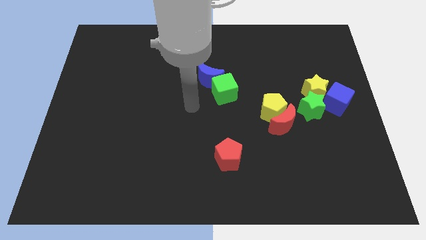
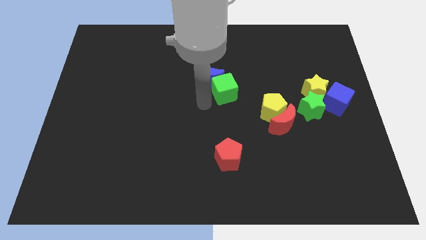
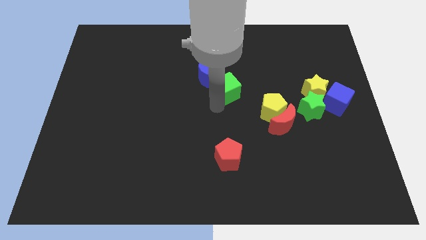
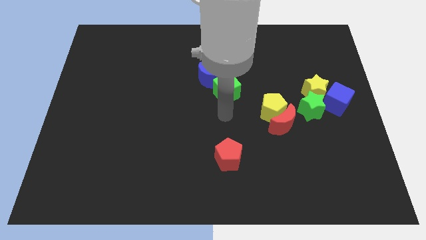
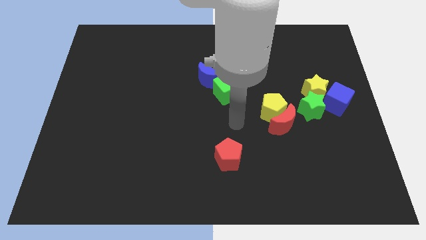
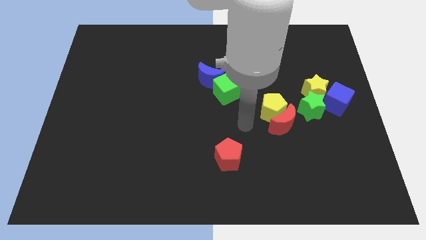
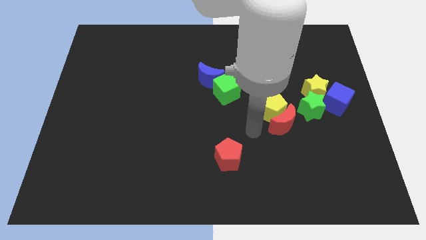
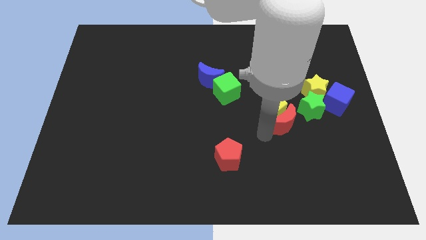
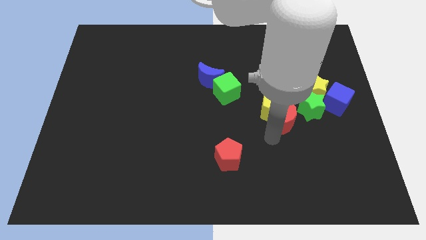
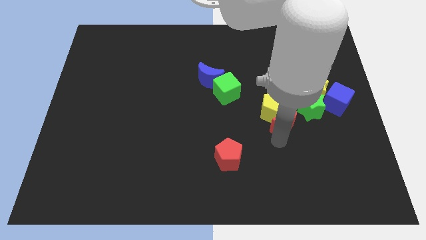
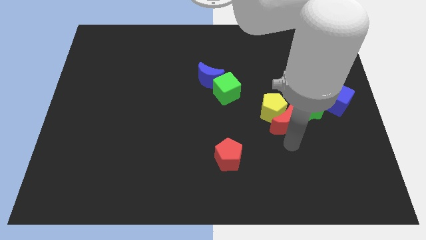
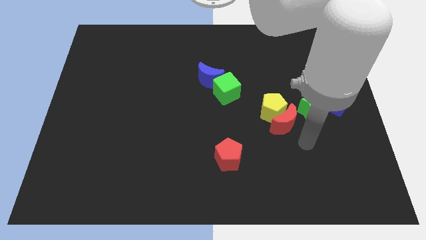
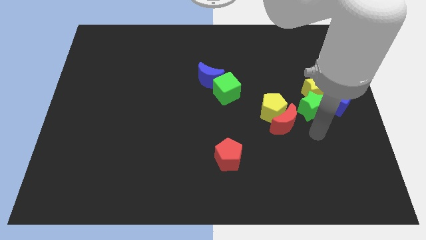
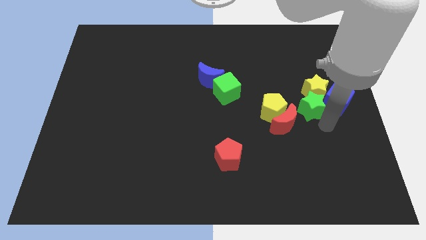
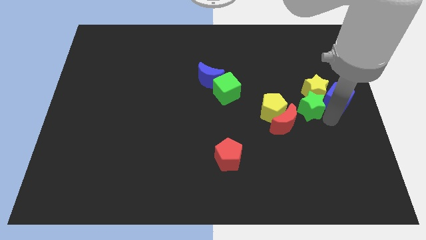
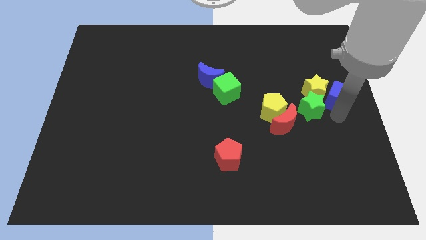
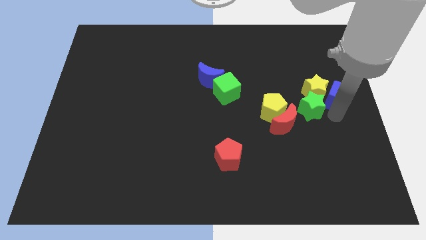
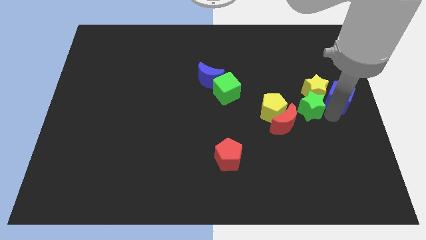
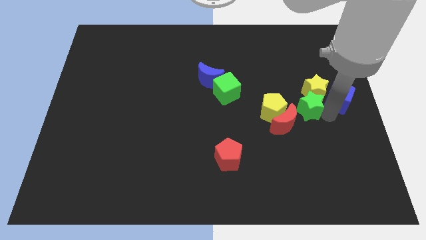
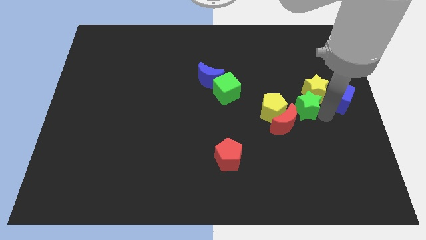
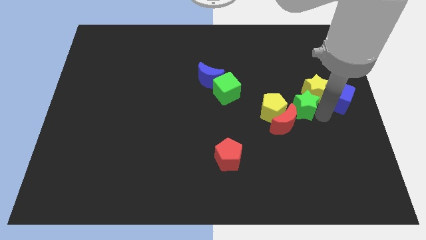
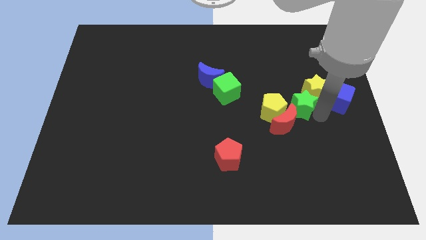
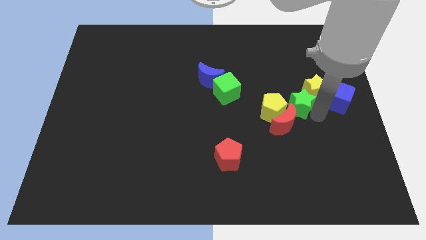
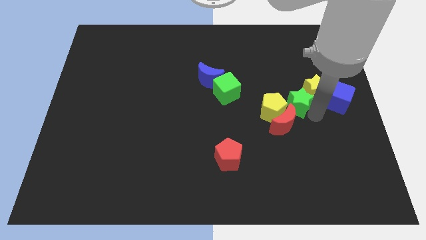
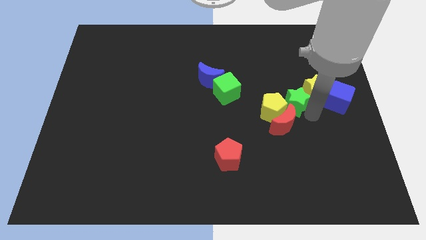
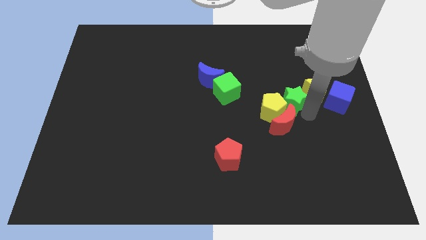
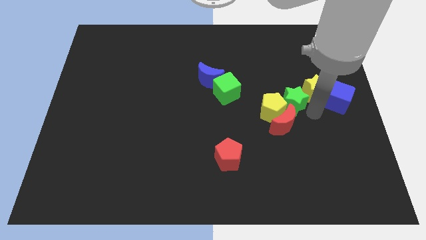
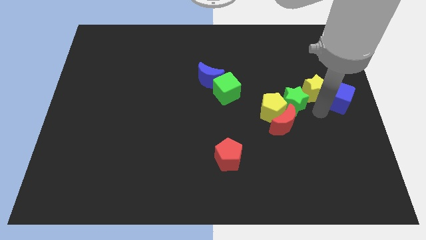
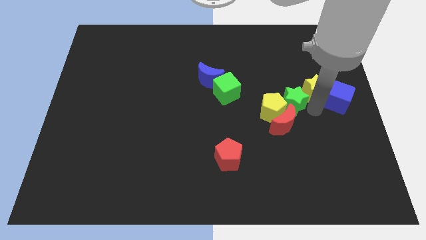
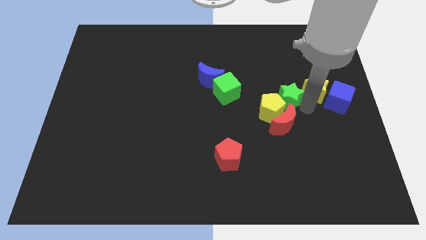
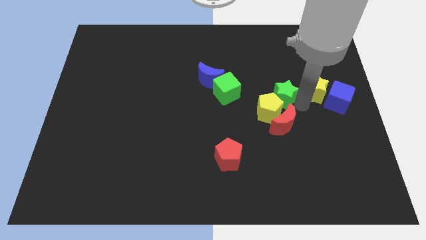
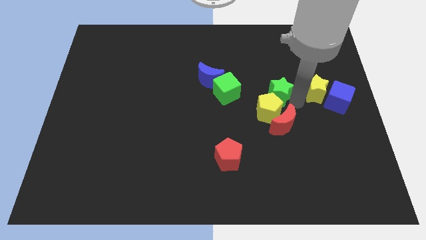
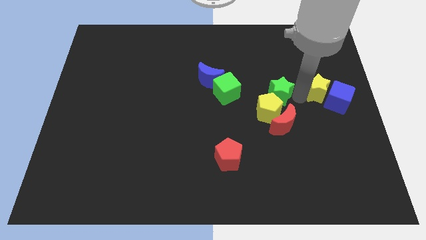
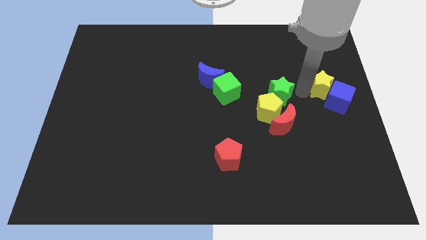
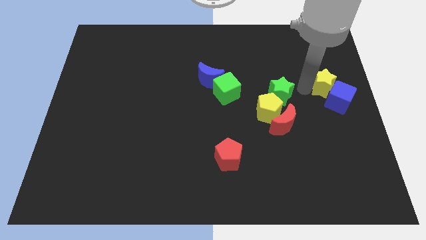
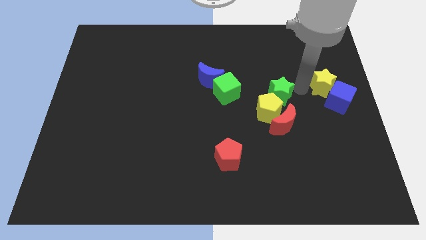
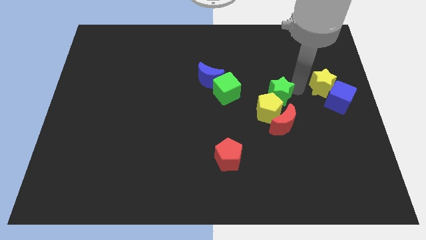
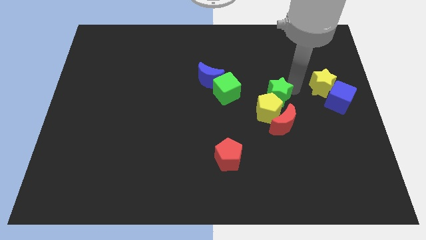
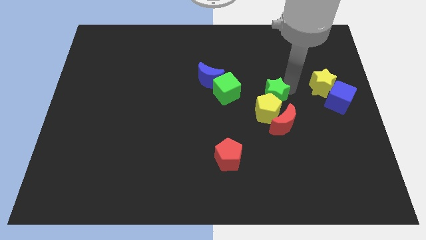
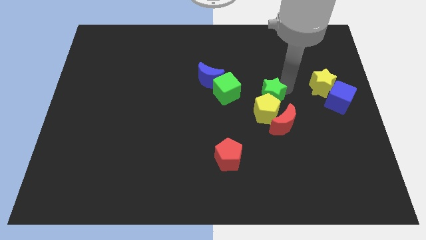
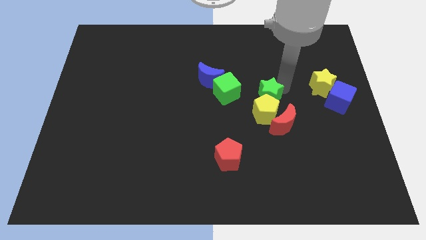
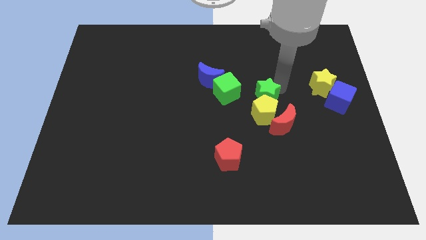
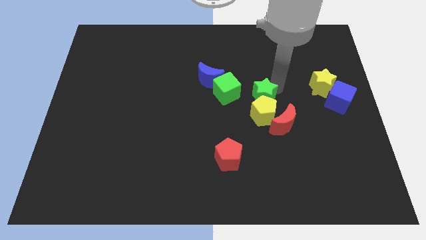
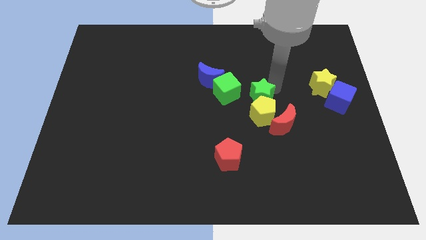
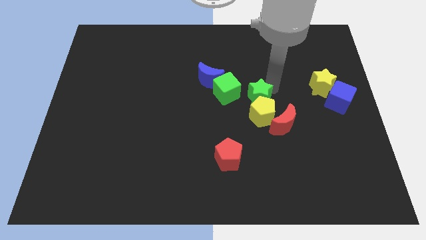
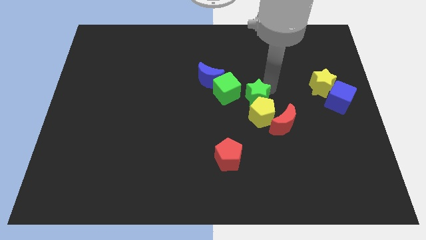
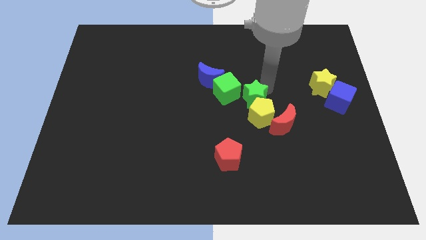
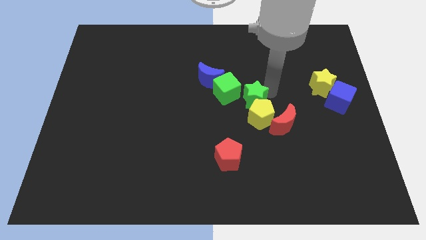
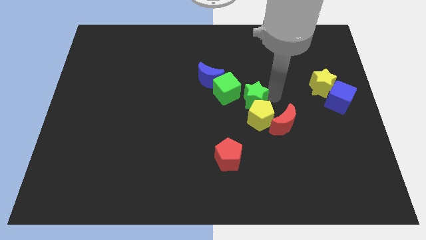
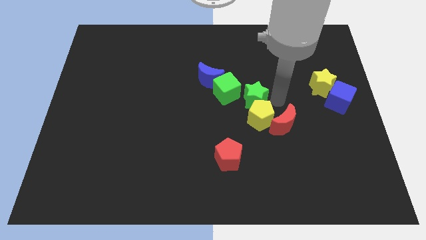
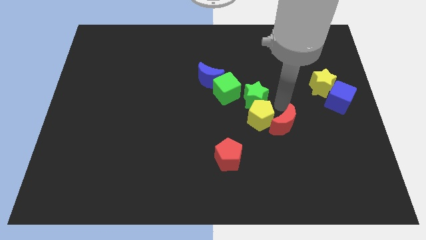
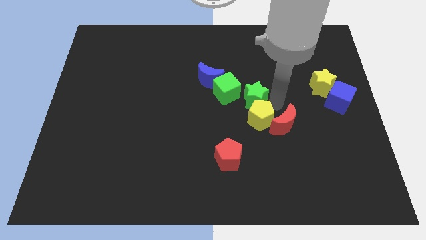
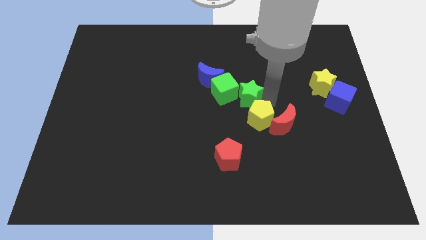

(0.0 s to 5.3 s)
put the green star next to the green cube

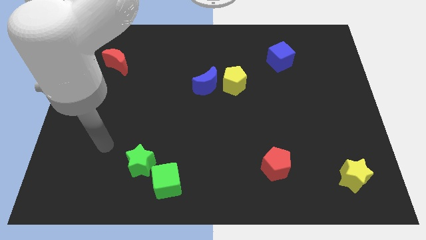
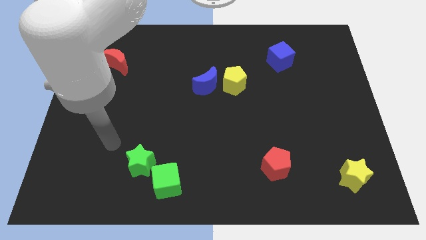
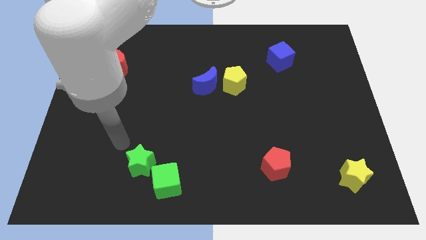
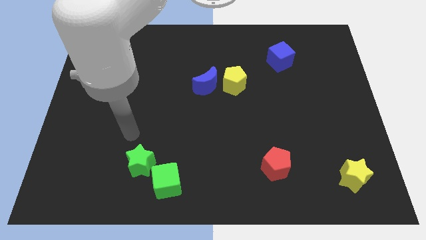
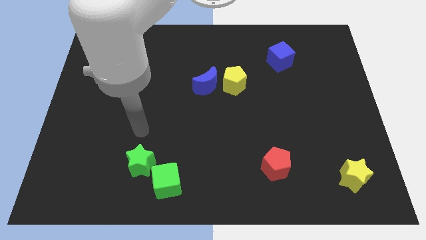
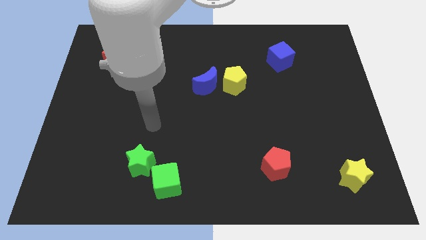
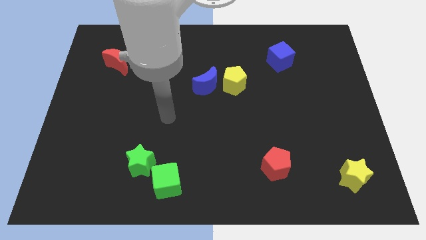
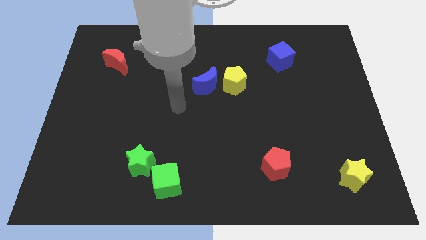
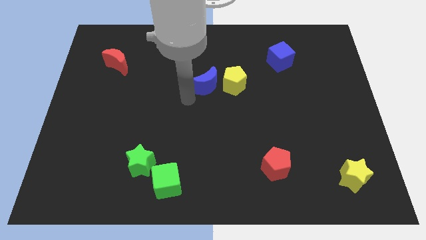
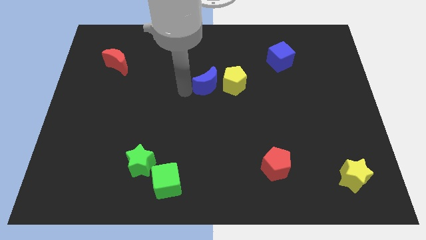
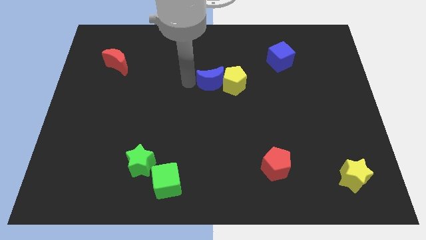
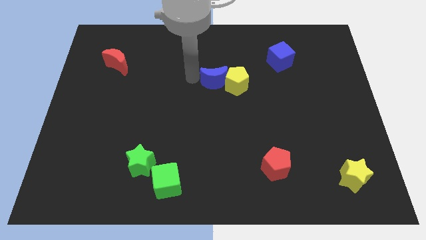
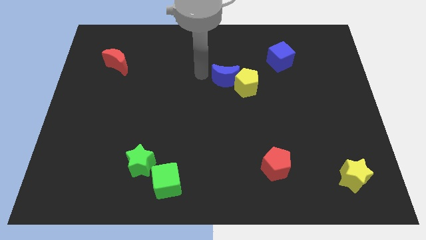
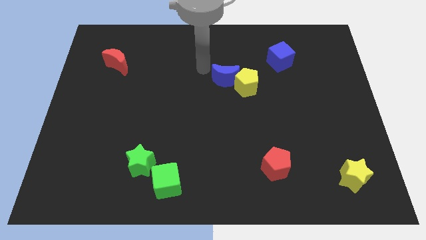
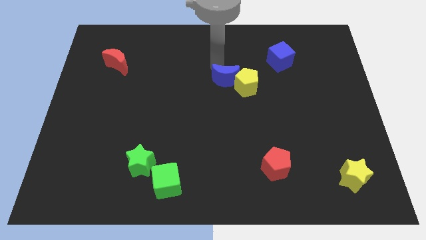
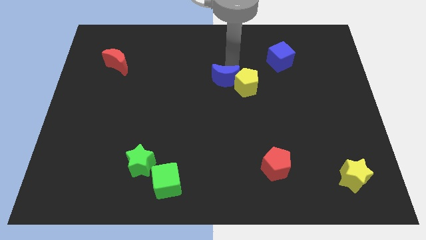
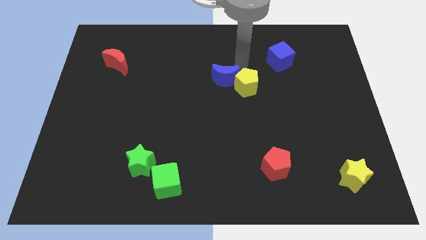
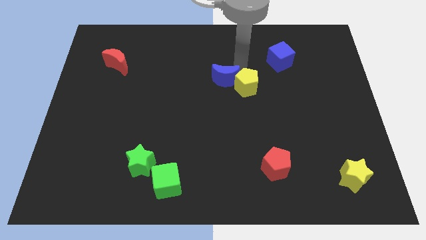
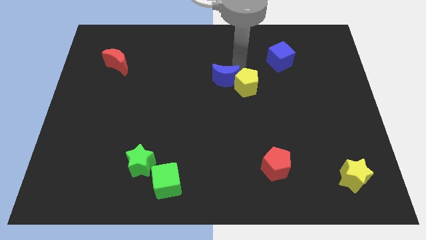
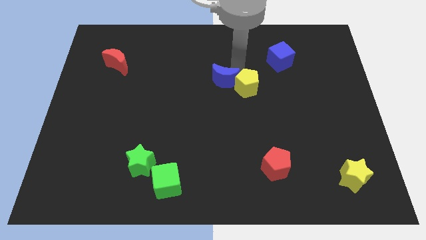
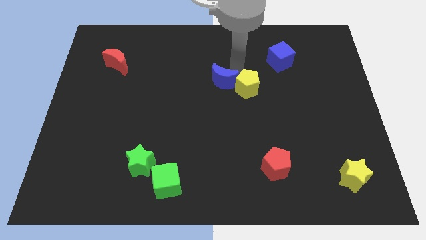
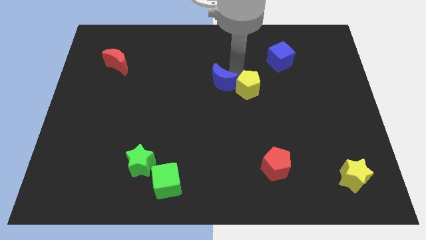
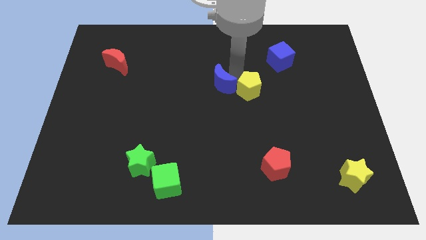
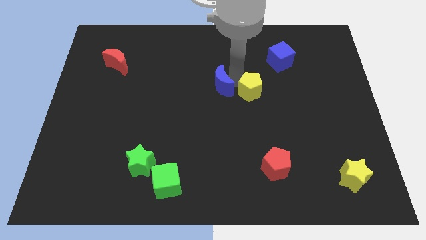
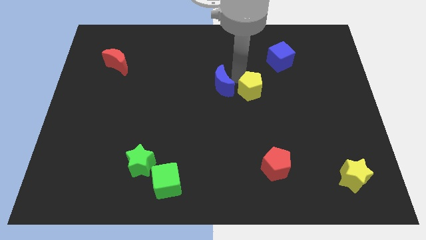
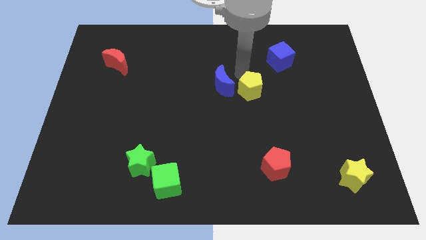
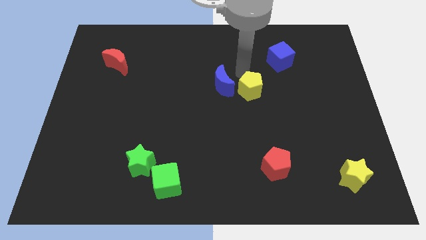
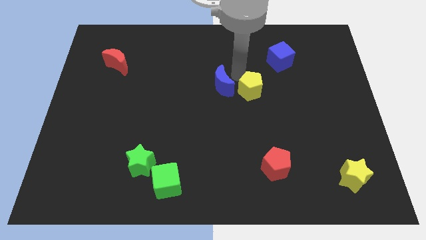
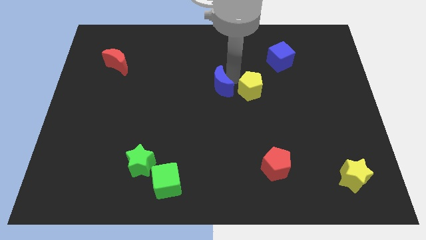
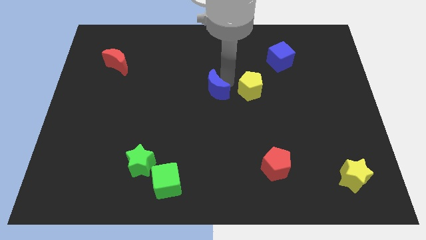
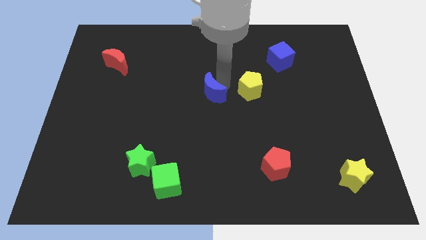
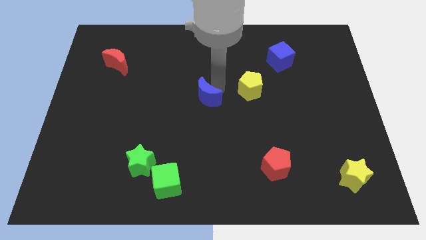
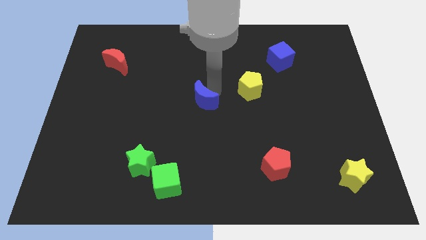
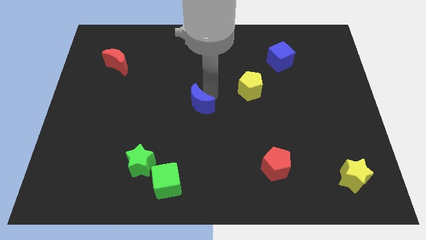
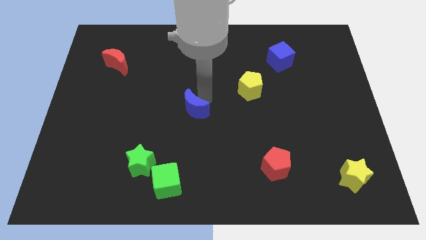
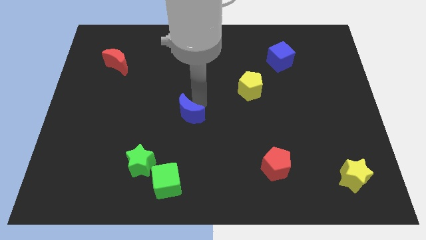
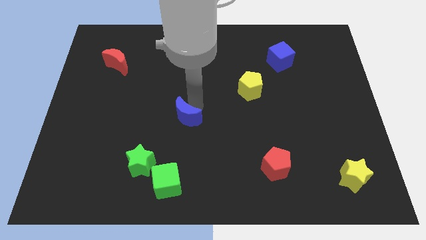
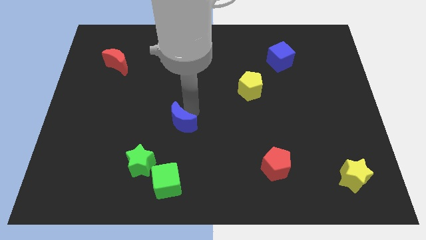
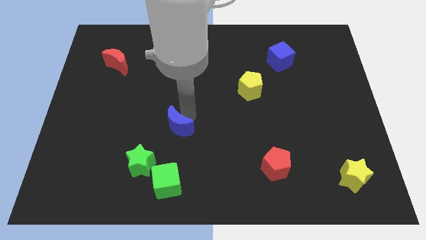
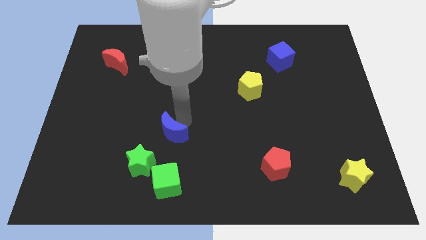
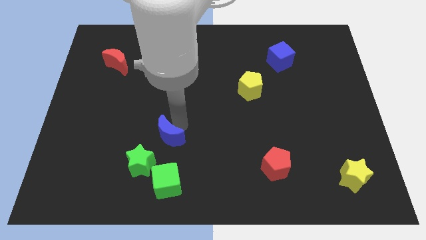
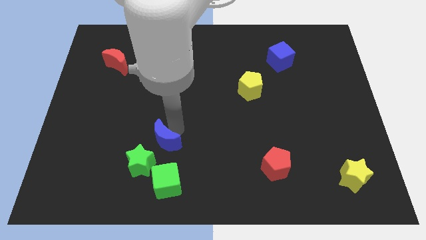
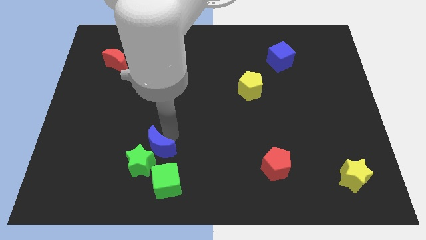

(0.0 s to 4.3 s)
push the blue moon next to the green star
